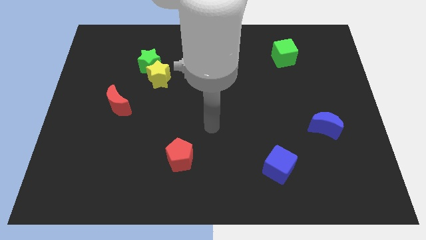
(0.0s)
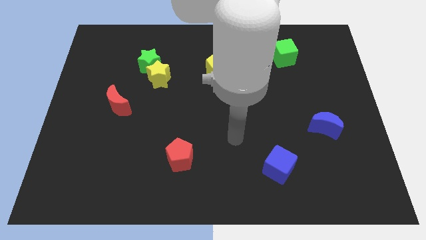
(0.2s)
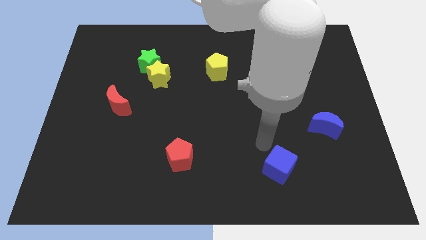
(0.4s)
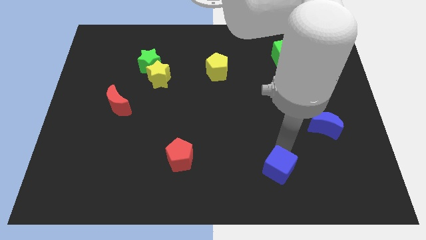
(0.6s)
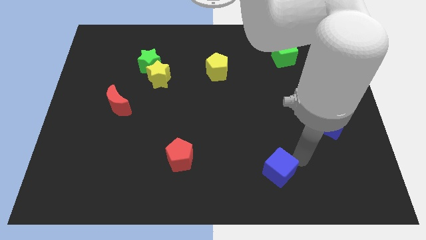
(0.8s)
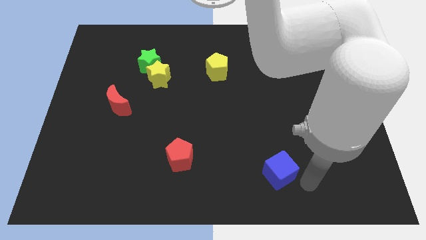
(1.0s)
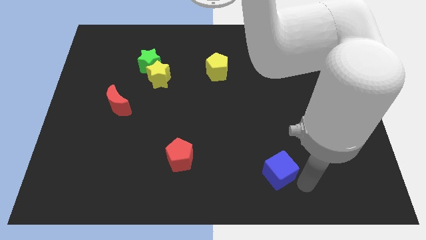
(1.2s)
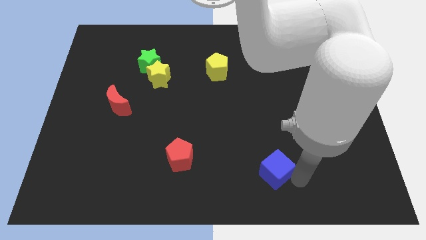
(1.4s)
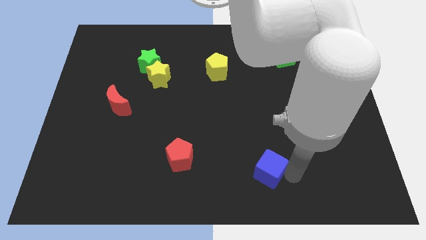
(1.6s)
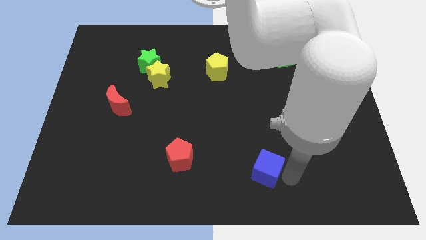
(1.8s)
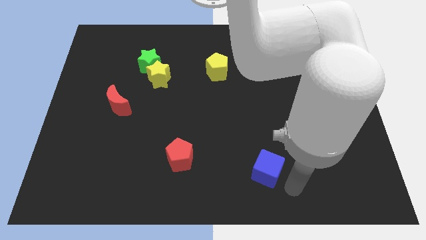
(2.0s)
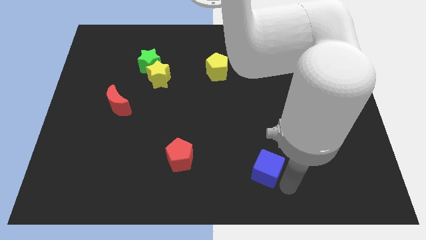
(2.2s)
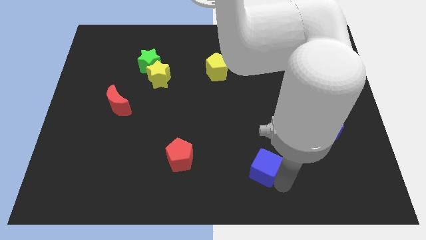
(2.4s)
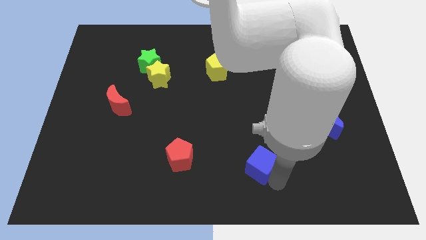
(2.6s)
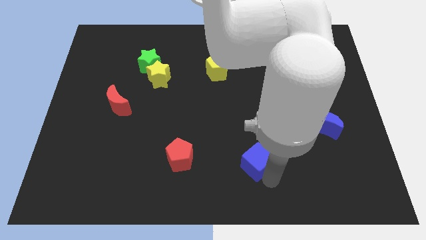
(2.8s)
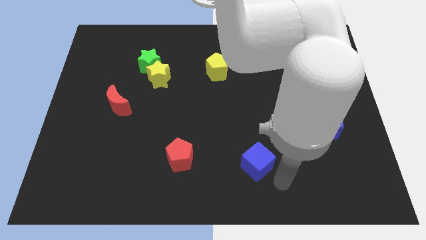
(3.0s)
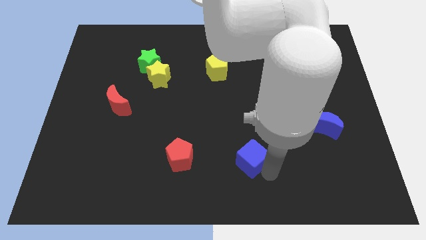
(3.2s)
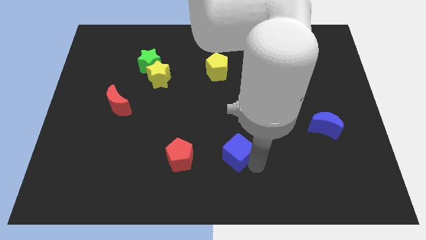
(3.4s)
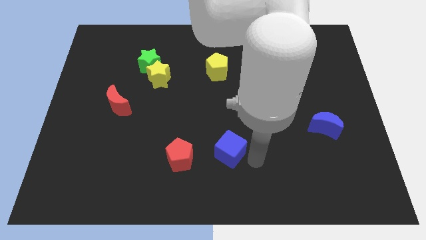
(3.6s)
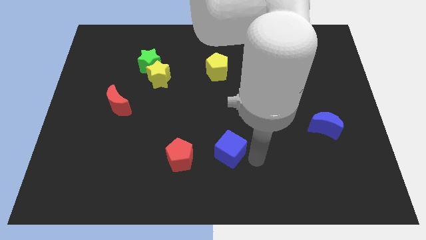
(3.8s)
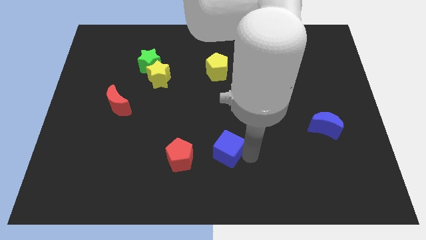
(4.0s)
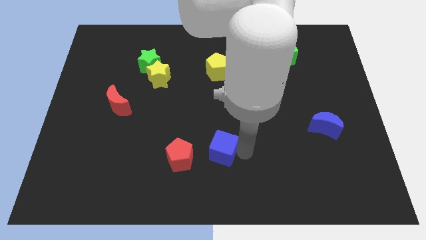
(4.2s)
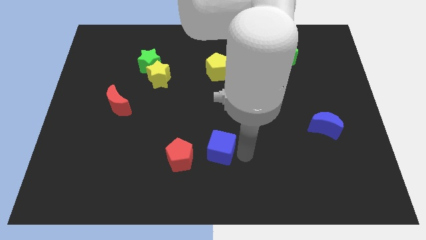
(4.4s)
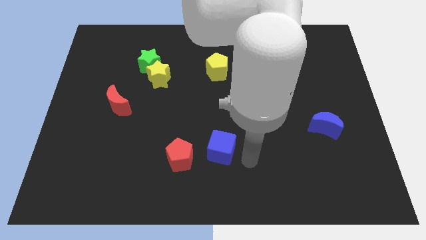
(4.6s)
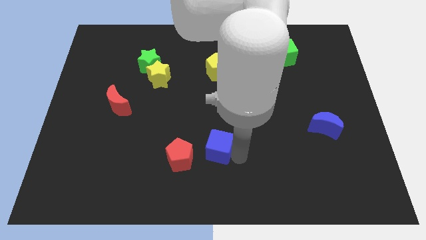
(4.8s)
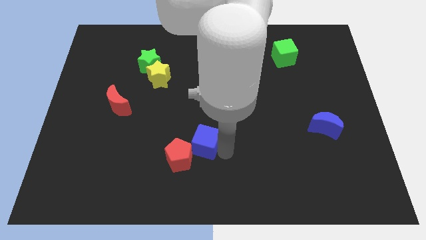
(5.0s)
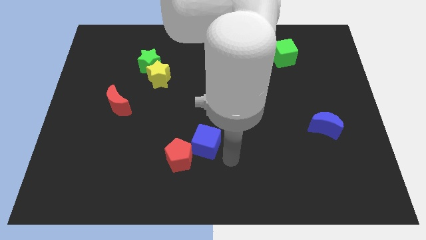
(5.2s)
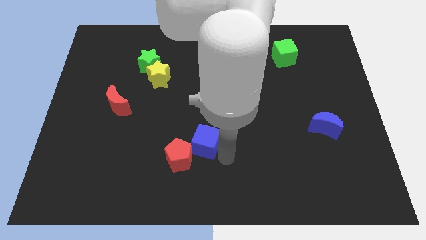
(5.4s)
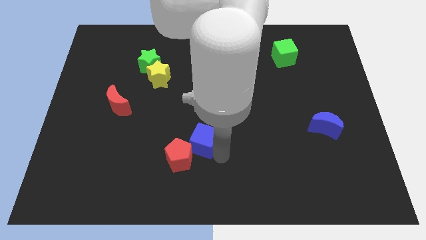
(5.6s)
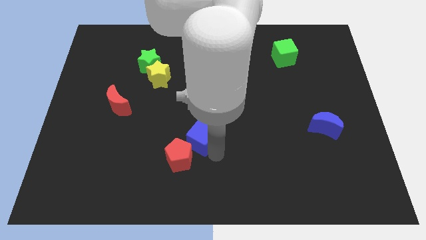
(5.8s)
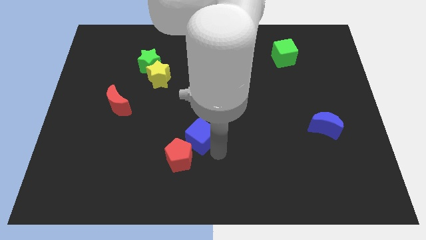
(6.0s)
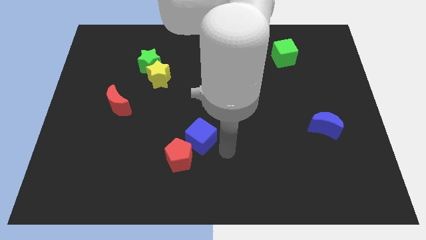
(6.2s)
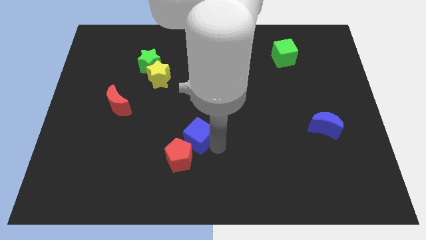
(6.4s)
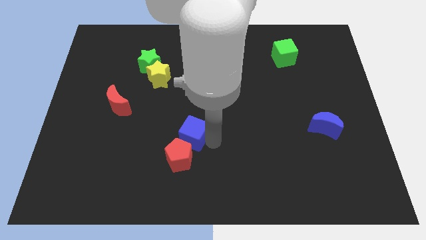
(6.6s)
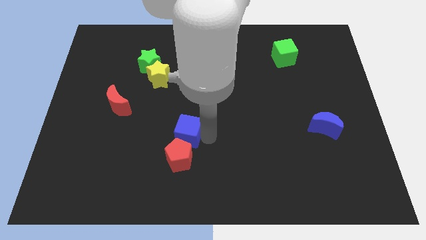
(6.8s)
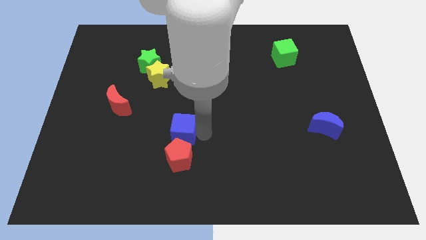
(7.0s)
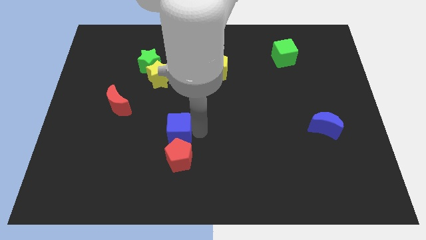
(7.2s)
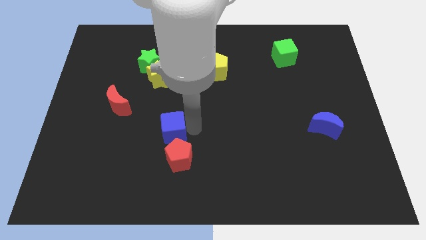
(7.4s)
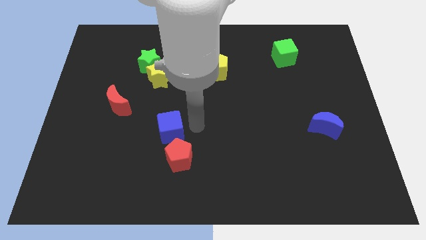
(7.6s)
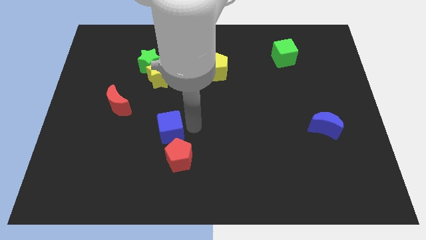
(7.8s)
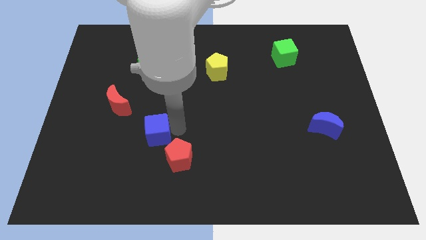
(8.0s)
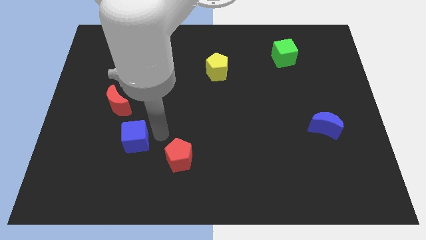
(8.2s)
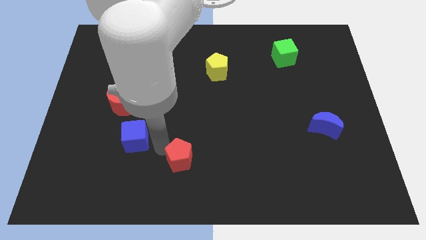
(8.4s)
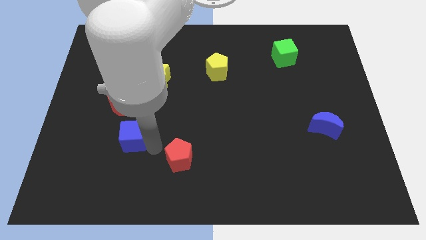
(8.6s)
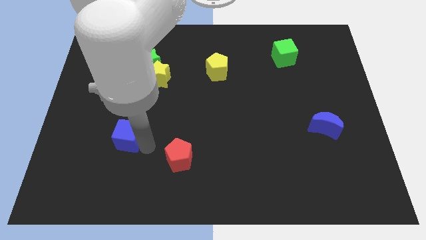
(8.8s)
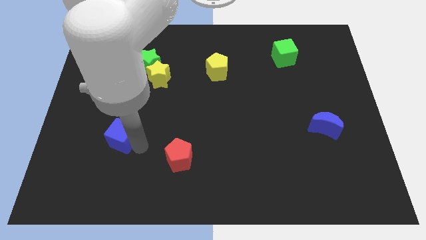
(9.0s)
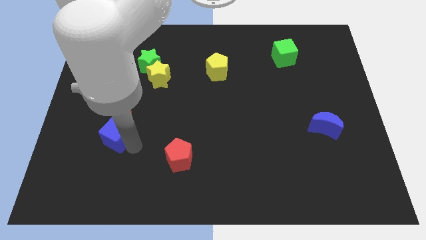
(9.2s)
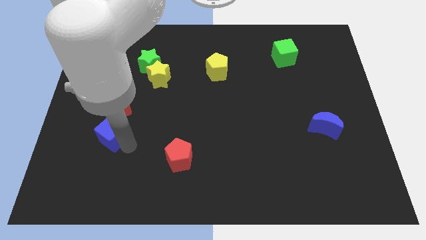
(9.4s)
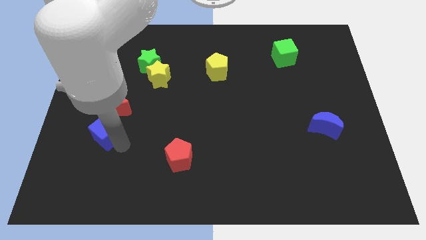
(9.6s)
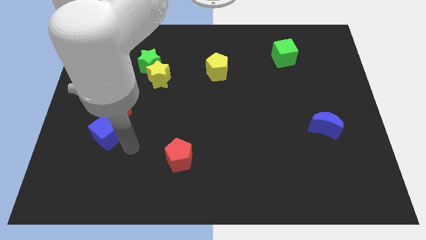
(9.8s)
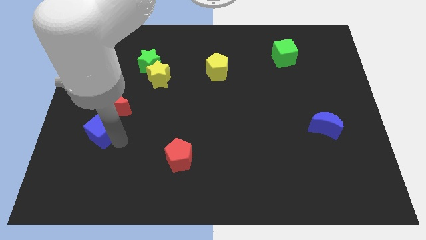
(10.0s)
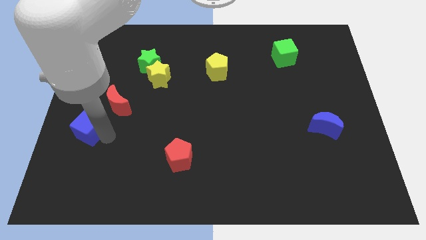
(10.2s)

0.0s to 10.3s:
put the blue cube to the center left
